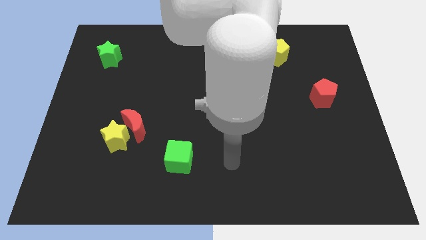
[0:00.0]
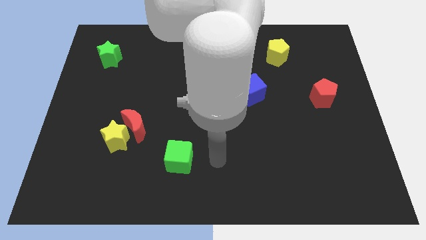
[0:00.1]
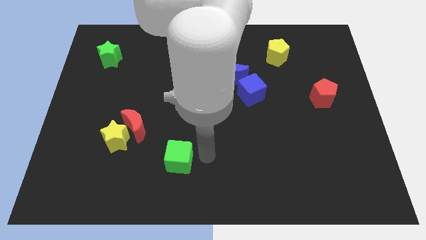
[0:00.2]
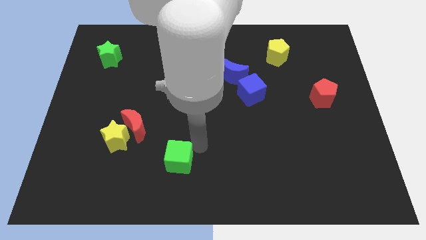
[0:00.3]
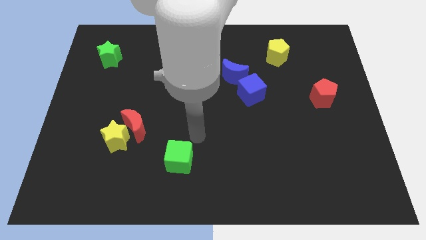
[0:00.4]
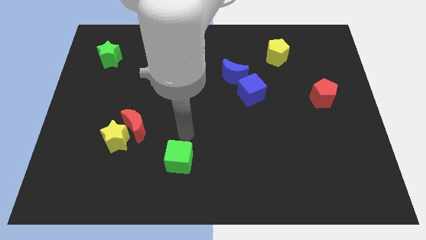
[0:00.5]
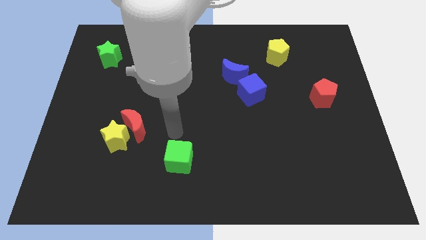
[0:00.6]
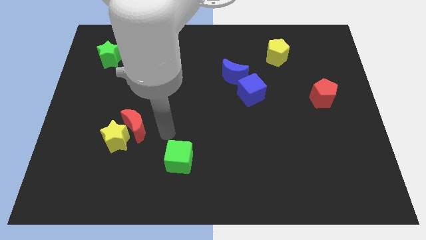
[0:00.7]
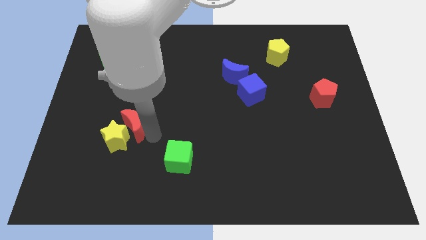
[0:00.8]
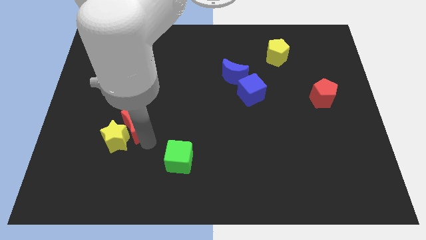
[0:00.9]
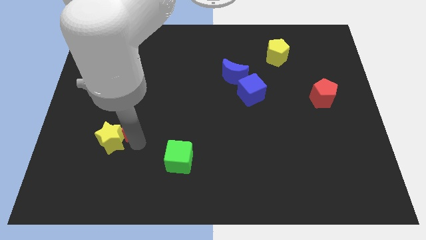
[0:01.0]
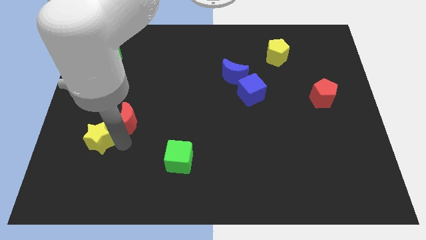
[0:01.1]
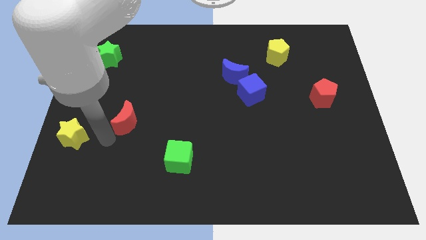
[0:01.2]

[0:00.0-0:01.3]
move the red moon away from the yellow star

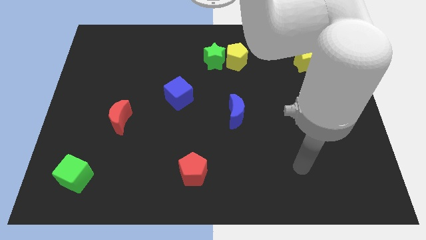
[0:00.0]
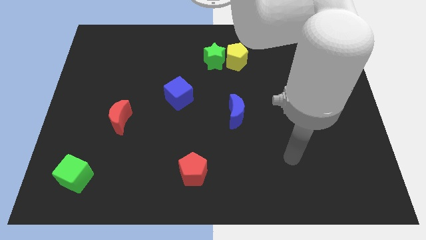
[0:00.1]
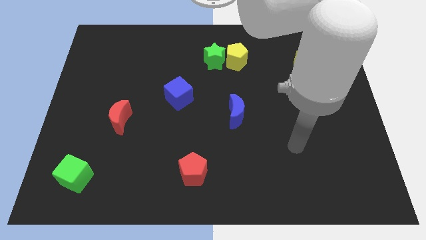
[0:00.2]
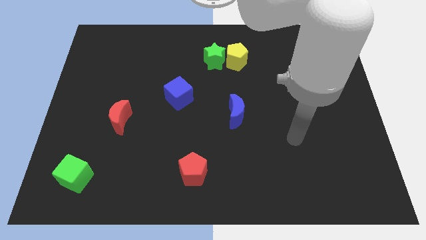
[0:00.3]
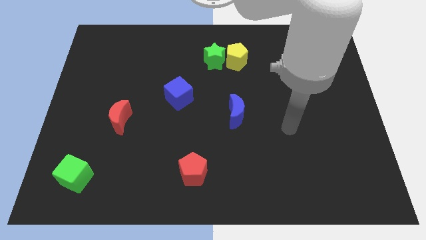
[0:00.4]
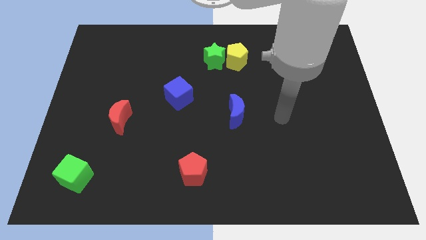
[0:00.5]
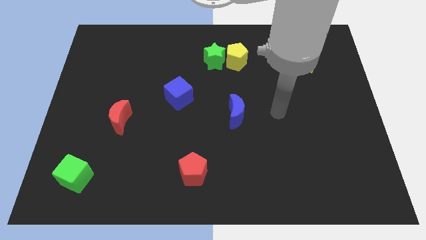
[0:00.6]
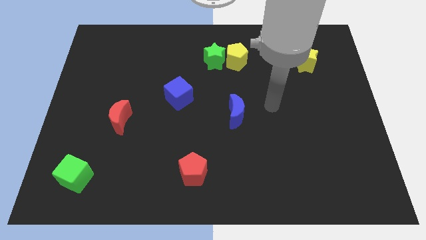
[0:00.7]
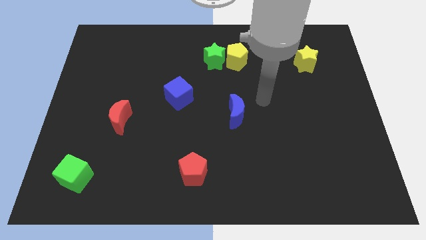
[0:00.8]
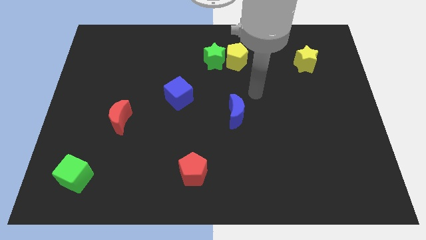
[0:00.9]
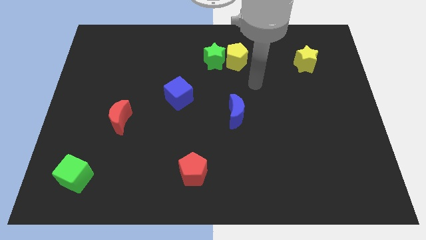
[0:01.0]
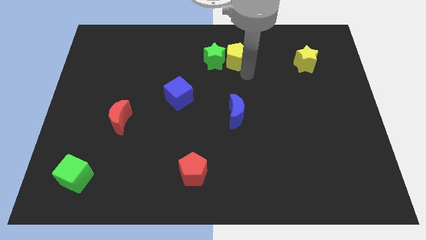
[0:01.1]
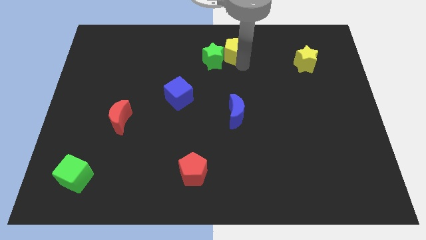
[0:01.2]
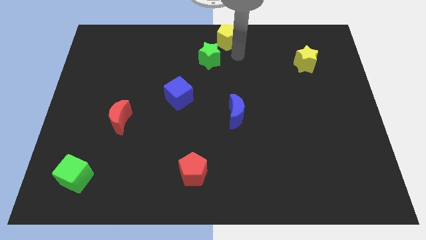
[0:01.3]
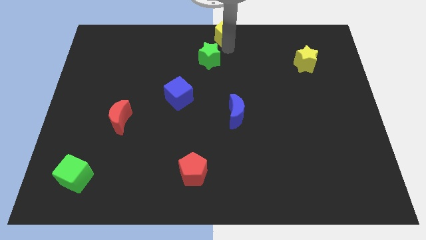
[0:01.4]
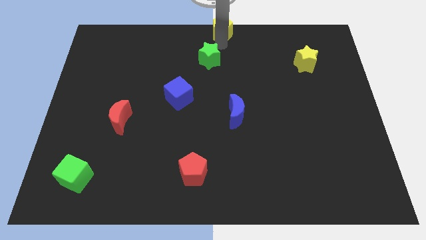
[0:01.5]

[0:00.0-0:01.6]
move the green star away from the yellow pentagon

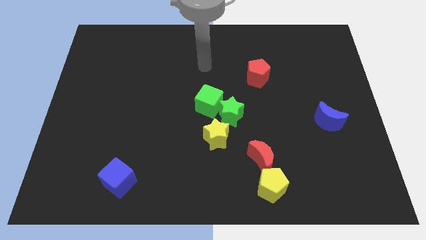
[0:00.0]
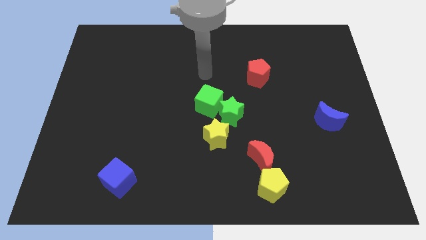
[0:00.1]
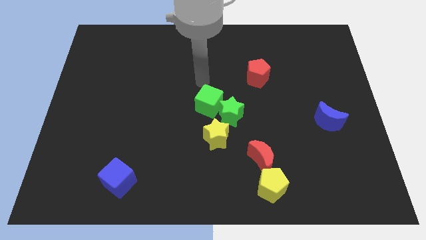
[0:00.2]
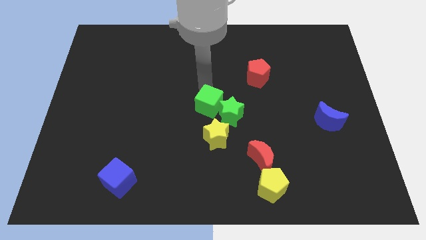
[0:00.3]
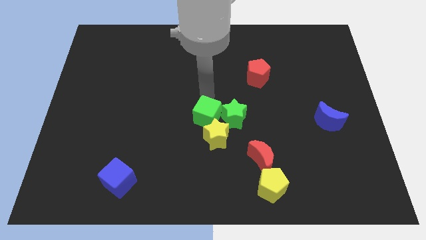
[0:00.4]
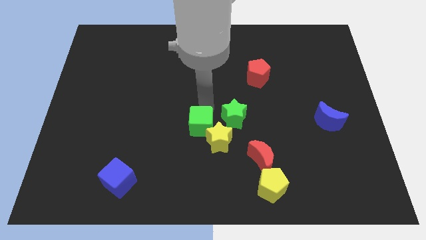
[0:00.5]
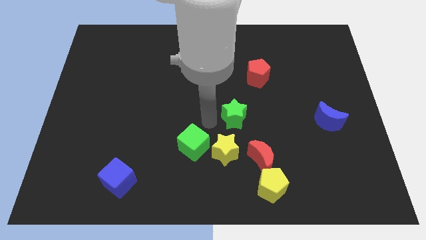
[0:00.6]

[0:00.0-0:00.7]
separate the green star from the green cube and yellow star

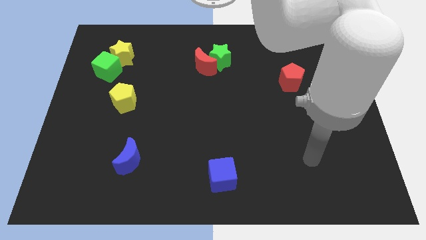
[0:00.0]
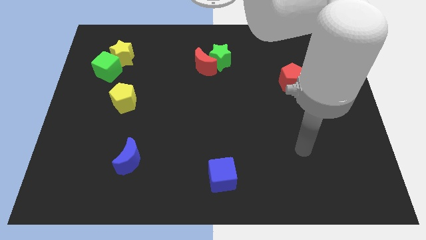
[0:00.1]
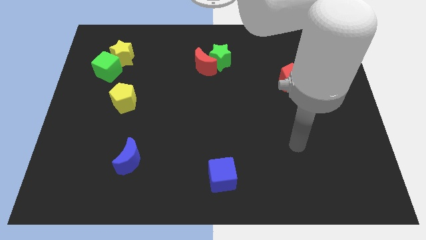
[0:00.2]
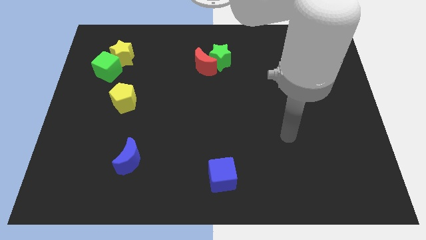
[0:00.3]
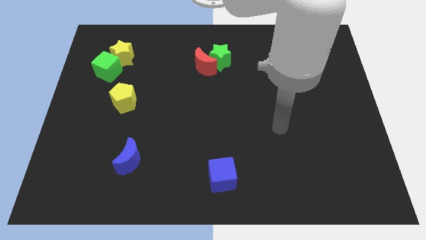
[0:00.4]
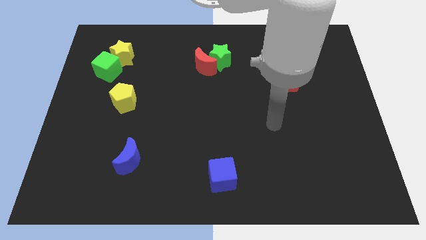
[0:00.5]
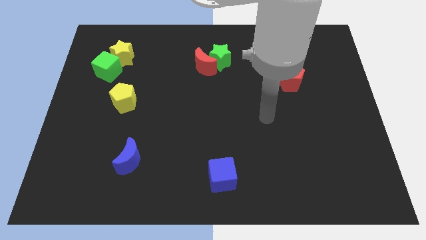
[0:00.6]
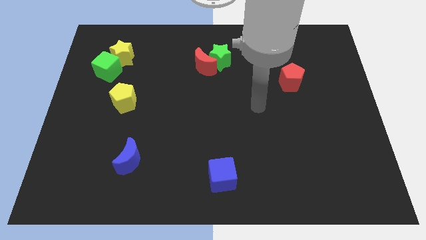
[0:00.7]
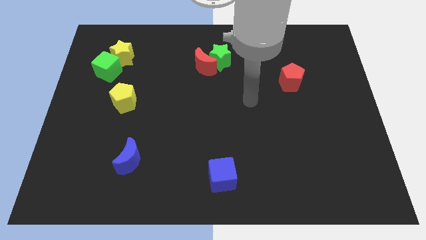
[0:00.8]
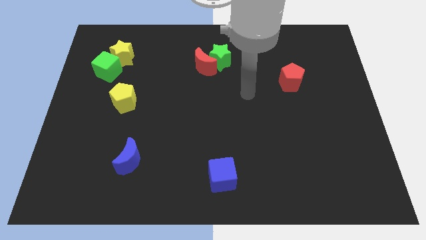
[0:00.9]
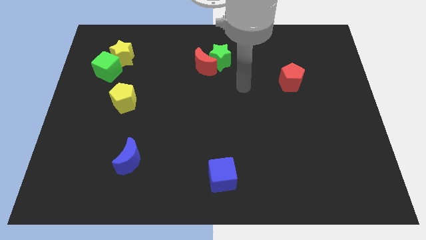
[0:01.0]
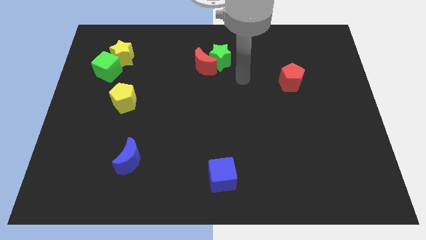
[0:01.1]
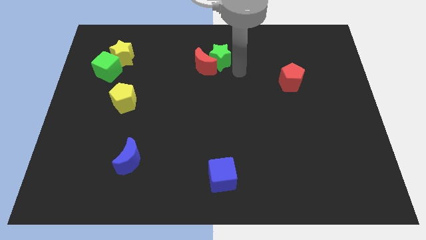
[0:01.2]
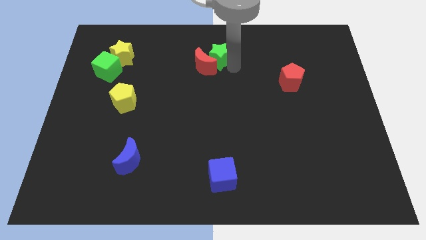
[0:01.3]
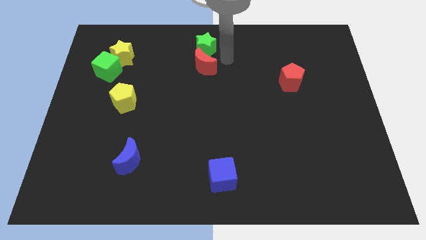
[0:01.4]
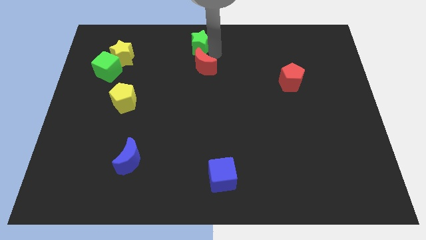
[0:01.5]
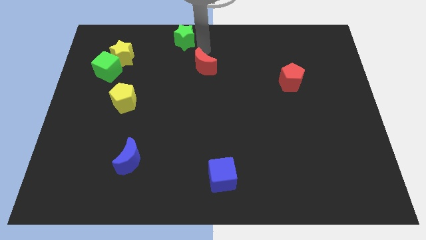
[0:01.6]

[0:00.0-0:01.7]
move the red moon away from the green star

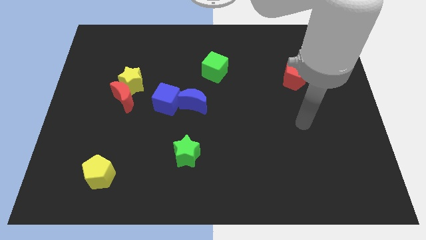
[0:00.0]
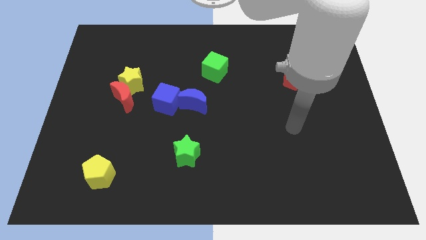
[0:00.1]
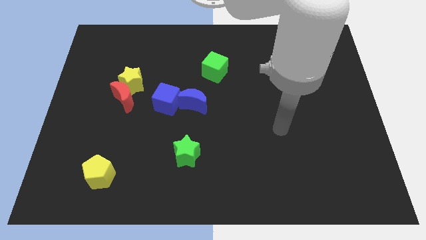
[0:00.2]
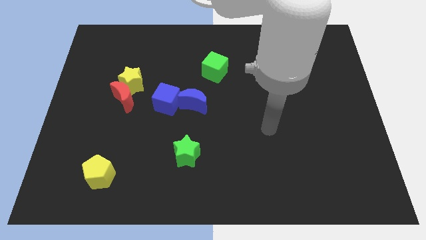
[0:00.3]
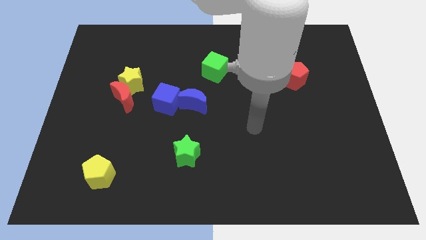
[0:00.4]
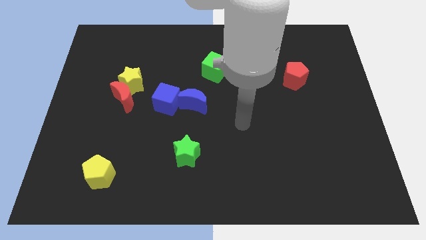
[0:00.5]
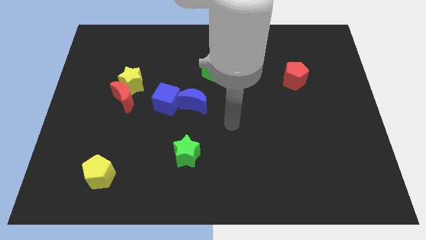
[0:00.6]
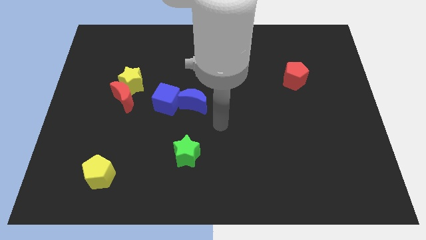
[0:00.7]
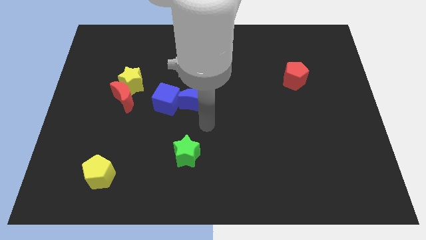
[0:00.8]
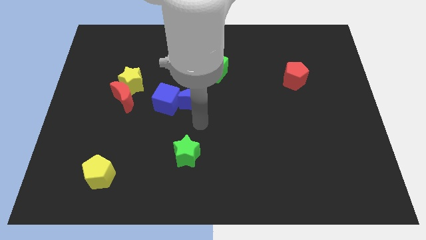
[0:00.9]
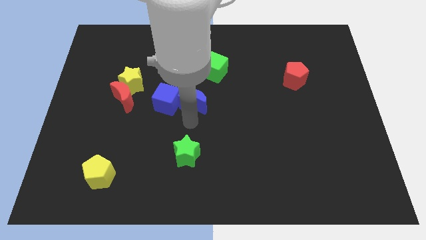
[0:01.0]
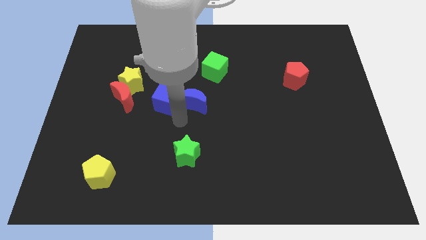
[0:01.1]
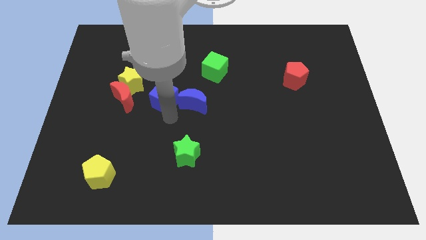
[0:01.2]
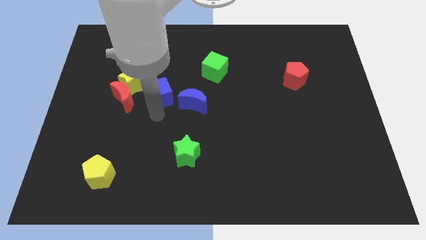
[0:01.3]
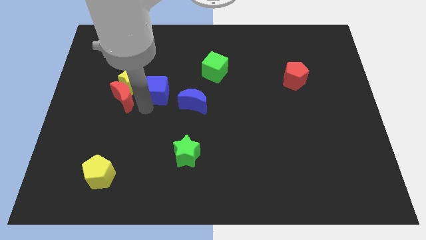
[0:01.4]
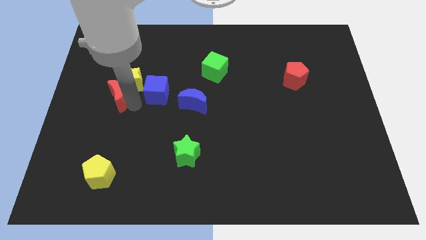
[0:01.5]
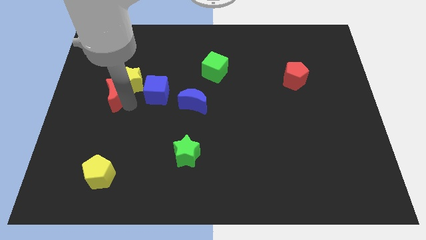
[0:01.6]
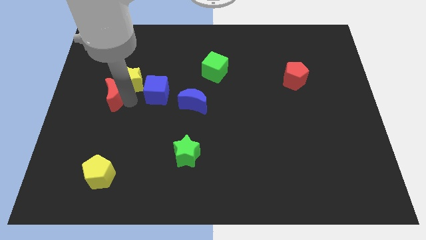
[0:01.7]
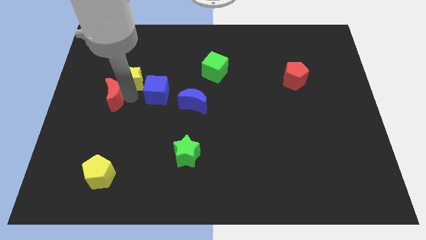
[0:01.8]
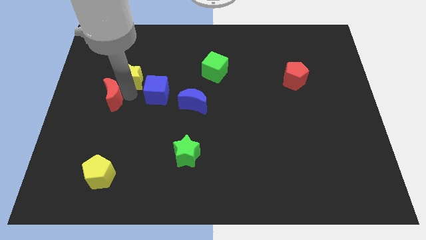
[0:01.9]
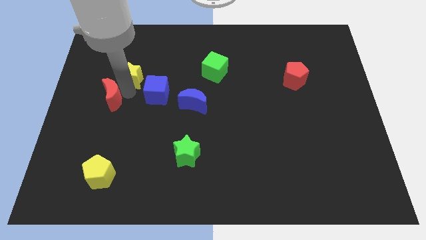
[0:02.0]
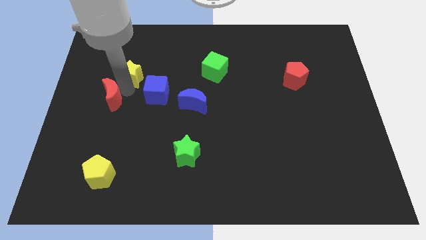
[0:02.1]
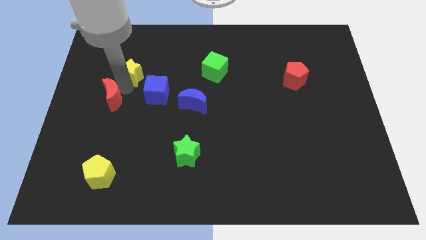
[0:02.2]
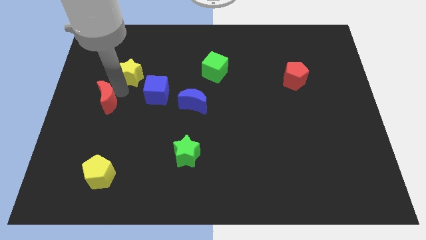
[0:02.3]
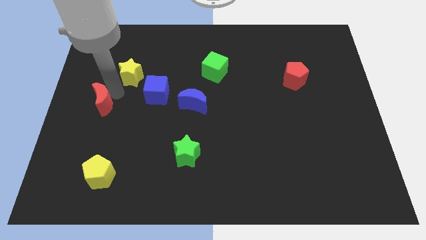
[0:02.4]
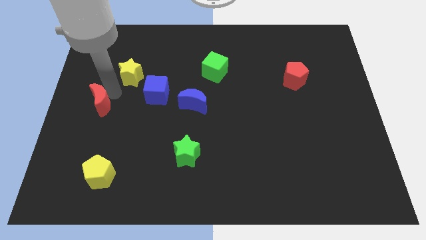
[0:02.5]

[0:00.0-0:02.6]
move the yellow star away from the red moon

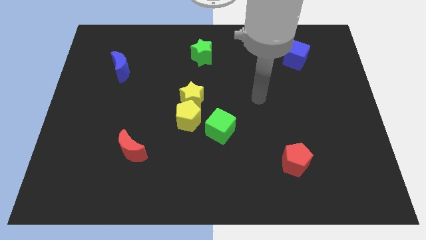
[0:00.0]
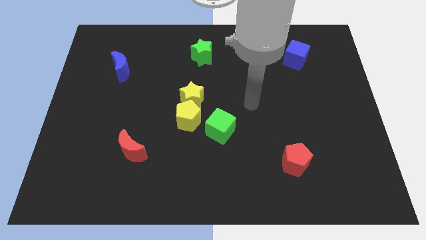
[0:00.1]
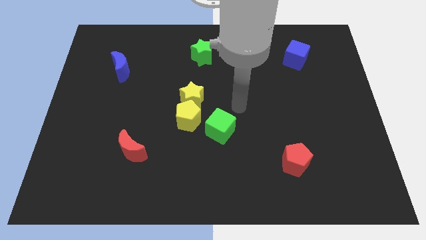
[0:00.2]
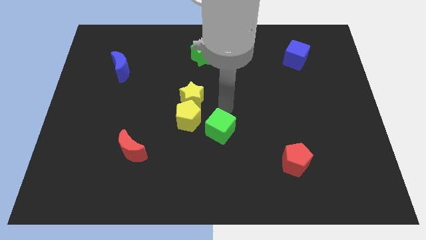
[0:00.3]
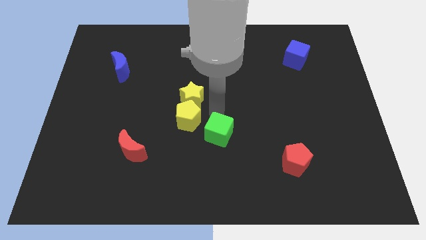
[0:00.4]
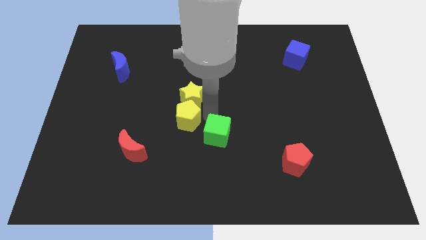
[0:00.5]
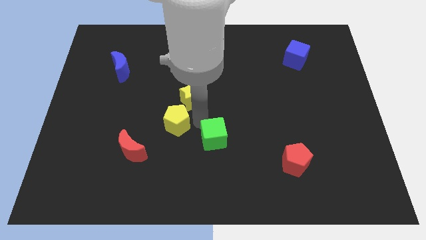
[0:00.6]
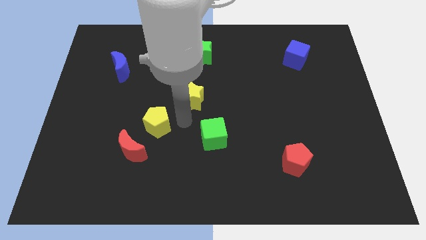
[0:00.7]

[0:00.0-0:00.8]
separate the yellow star from the yellow pentagon

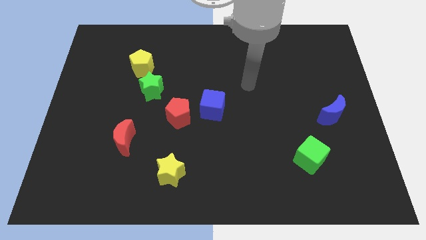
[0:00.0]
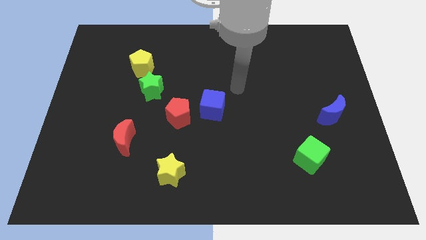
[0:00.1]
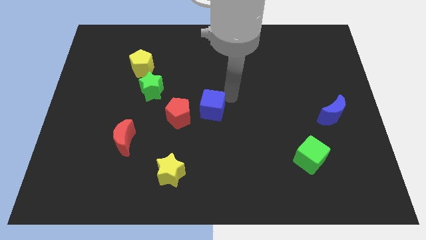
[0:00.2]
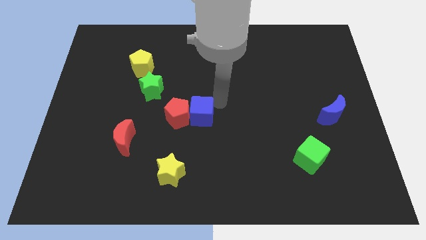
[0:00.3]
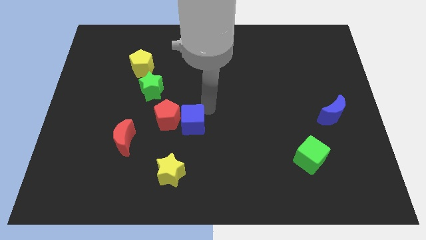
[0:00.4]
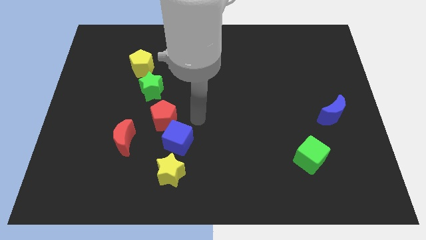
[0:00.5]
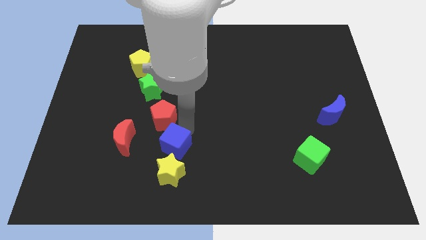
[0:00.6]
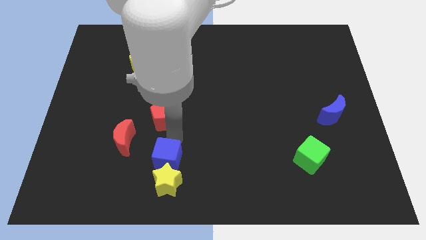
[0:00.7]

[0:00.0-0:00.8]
separate the red pentagon from the blue cube
